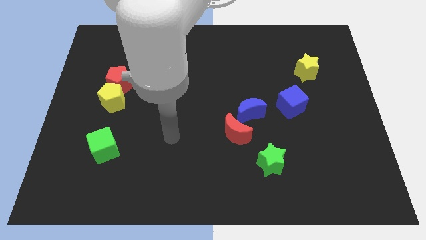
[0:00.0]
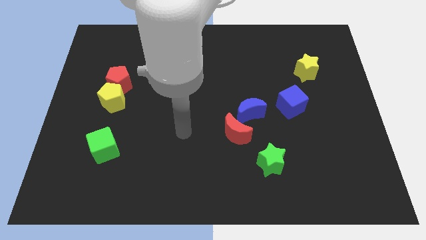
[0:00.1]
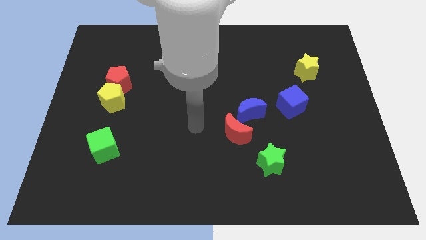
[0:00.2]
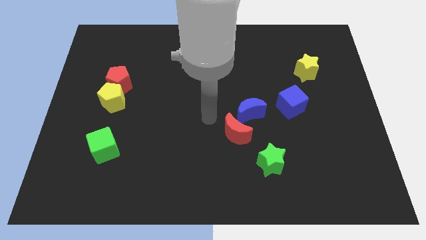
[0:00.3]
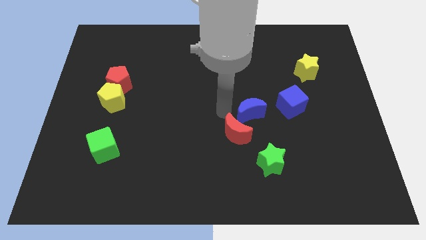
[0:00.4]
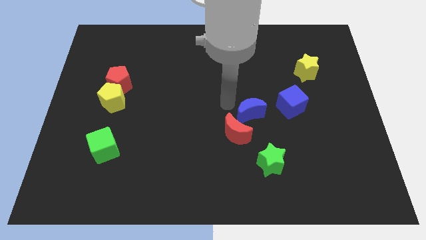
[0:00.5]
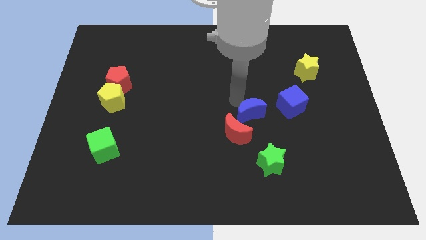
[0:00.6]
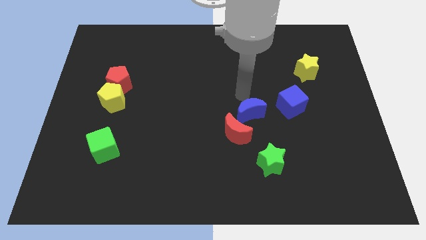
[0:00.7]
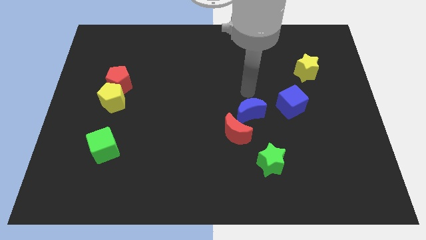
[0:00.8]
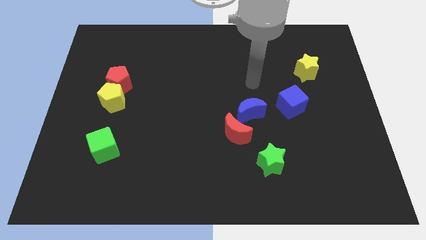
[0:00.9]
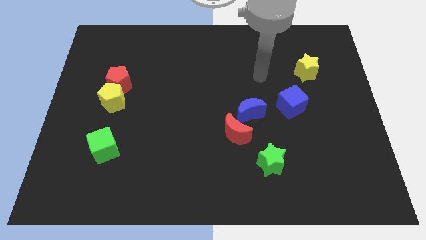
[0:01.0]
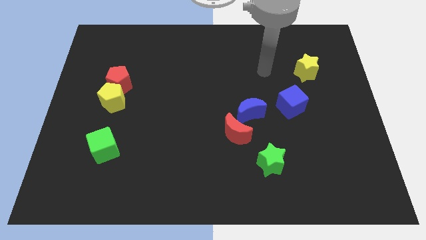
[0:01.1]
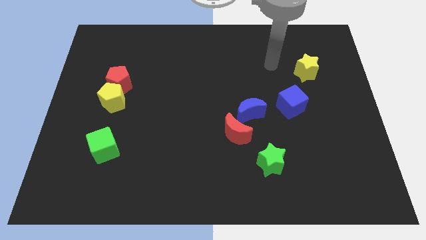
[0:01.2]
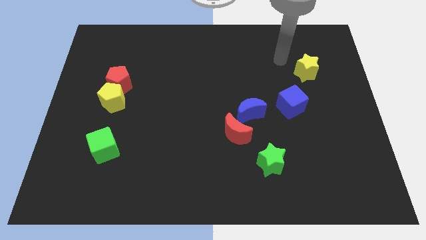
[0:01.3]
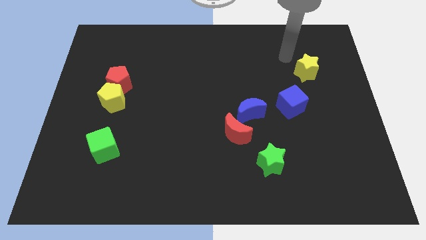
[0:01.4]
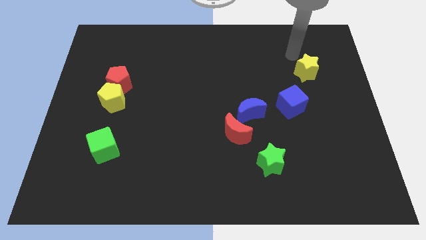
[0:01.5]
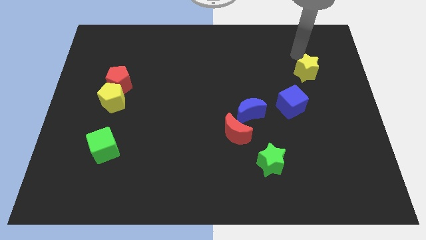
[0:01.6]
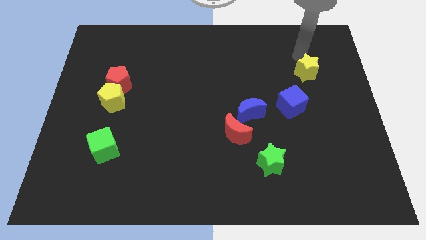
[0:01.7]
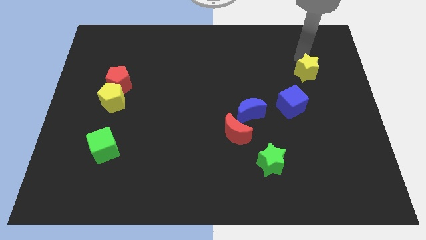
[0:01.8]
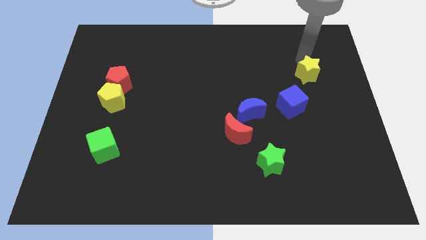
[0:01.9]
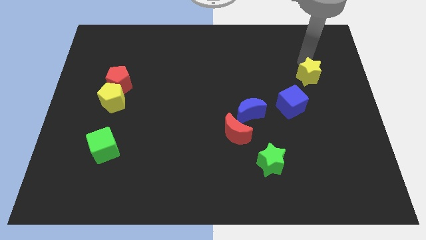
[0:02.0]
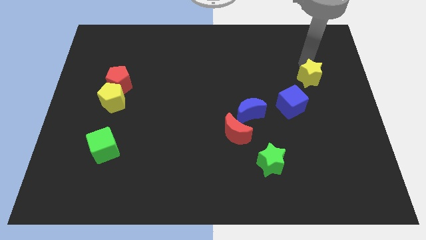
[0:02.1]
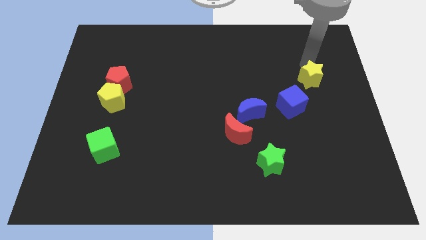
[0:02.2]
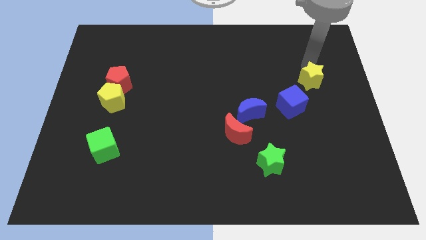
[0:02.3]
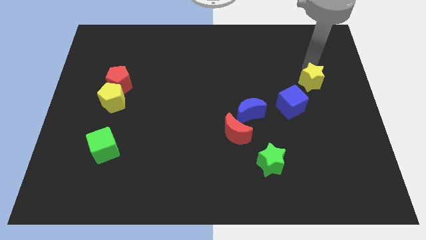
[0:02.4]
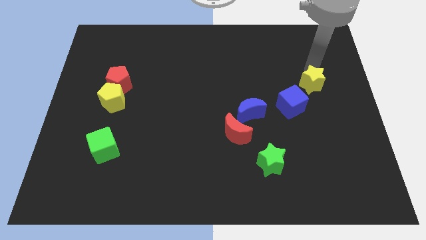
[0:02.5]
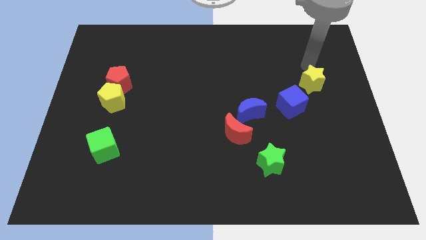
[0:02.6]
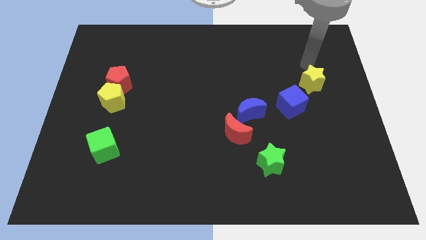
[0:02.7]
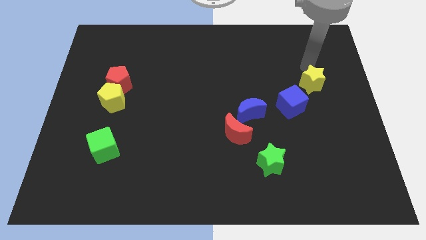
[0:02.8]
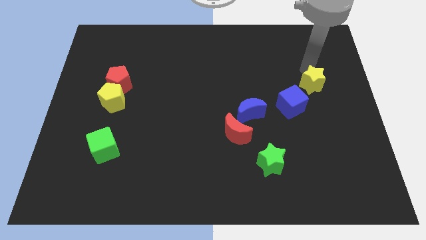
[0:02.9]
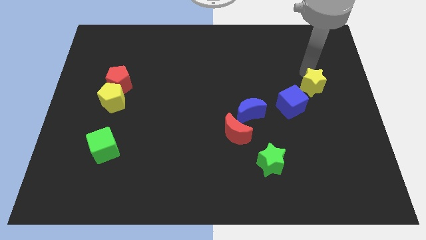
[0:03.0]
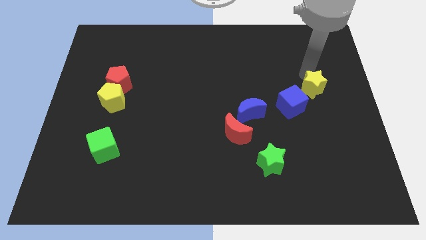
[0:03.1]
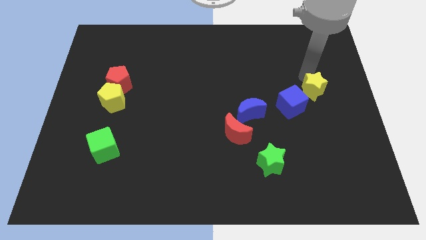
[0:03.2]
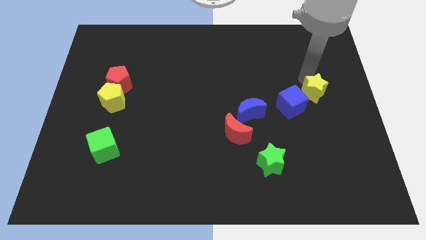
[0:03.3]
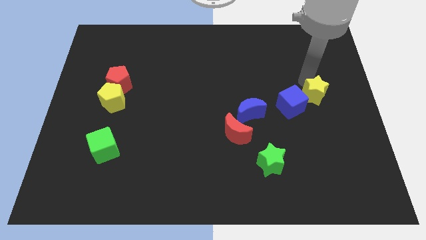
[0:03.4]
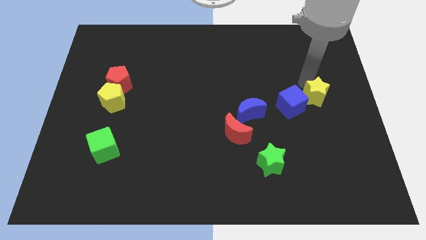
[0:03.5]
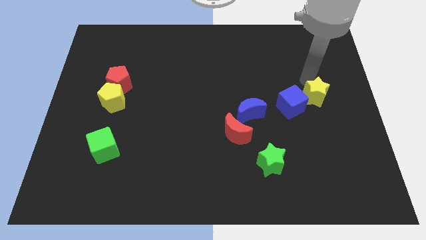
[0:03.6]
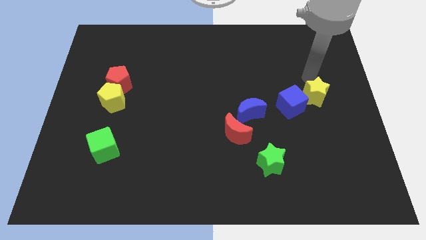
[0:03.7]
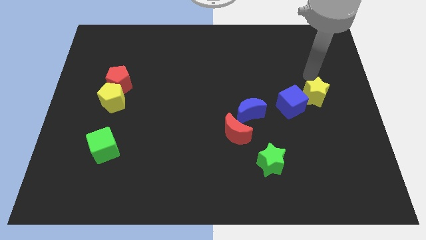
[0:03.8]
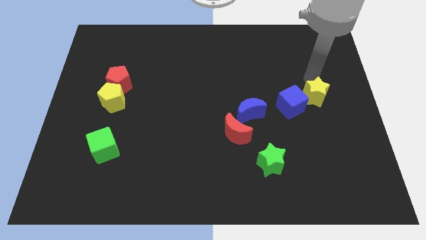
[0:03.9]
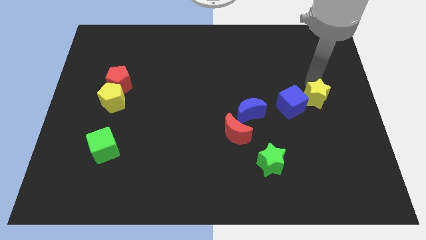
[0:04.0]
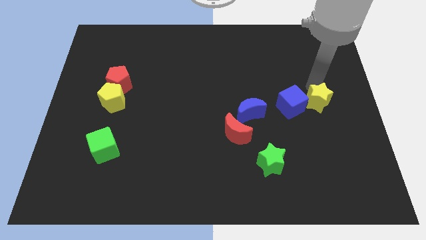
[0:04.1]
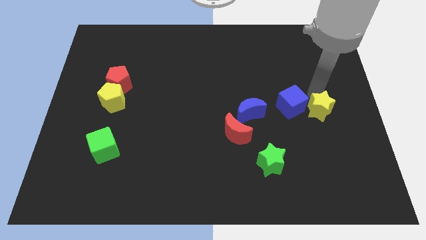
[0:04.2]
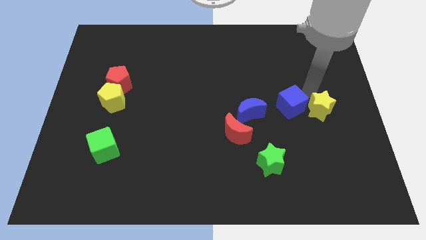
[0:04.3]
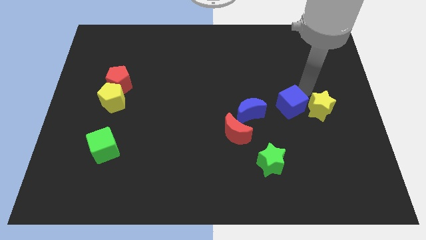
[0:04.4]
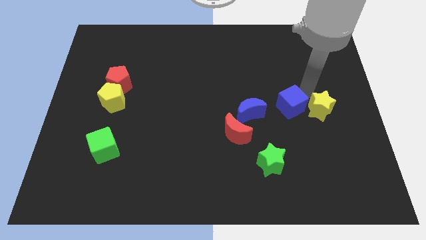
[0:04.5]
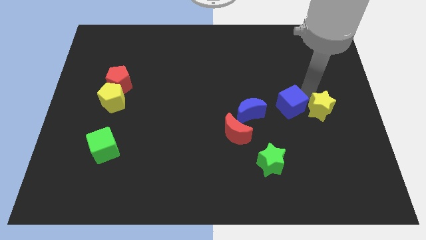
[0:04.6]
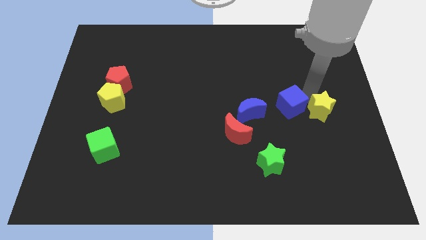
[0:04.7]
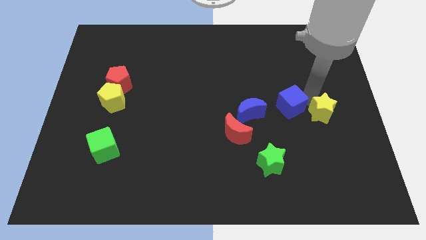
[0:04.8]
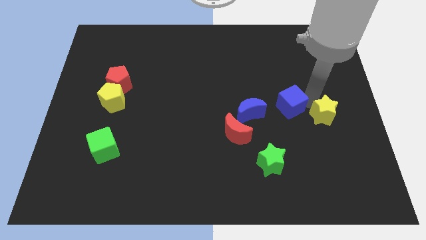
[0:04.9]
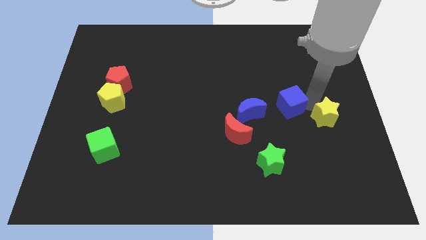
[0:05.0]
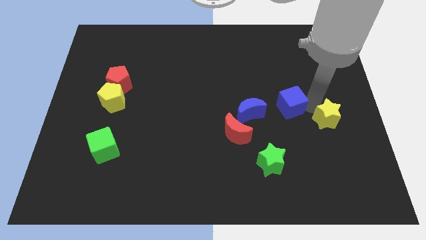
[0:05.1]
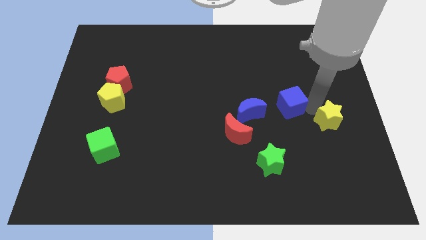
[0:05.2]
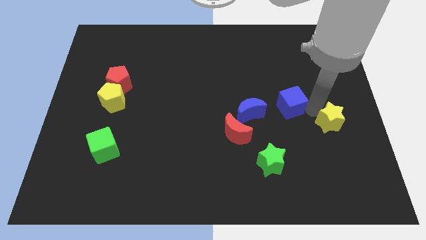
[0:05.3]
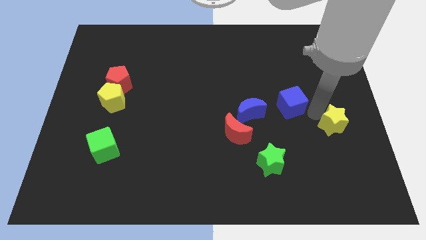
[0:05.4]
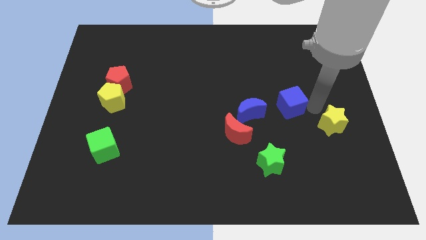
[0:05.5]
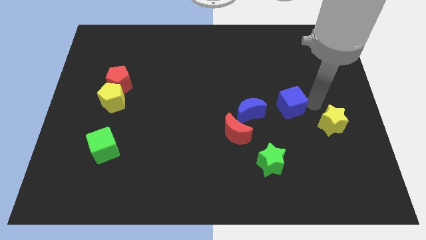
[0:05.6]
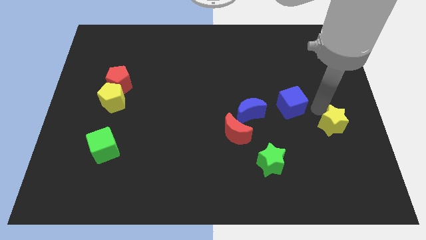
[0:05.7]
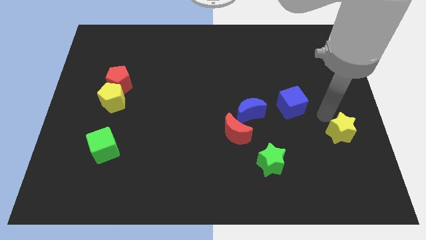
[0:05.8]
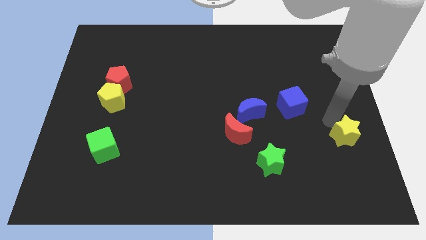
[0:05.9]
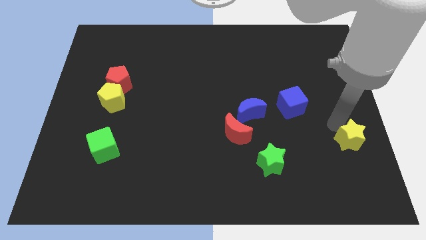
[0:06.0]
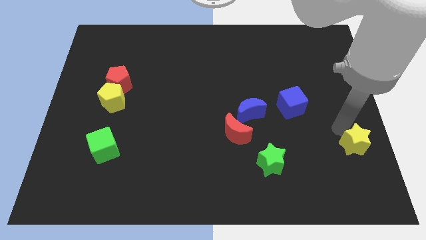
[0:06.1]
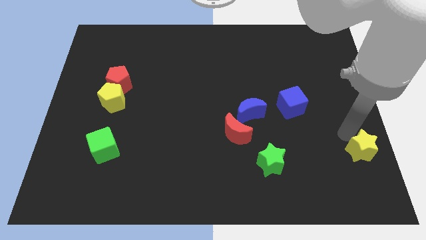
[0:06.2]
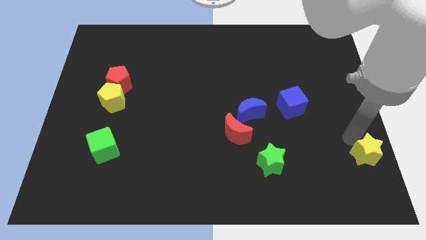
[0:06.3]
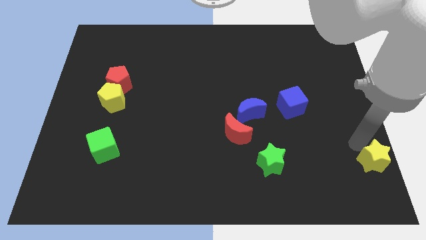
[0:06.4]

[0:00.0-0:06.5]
put the yellow star to the lower right corner

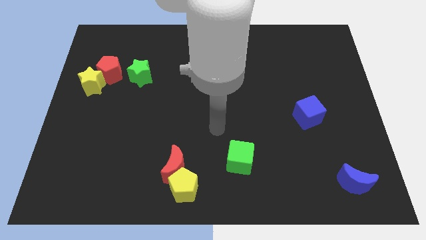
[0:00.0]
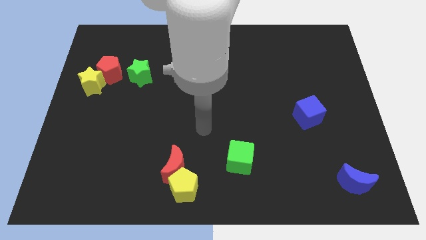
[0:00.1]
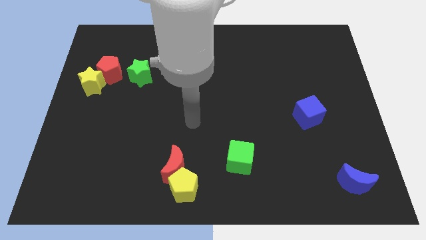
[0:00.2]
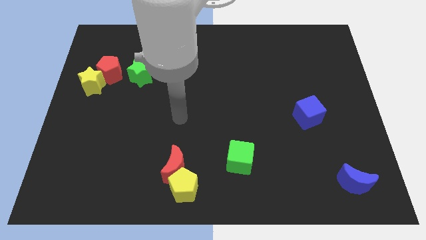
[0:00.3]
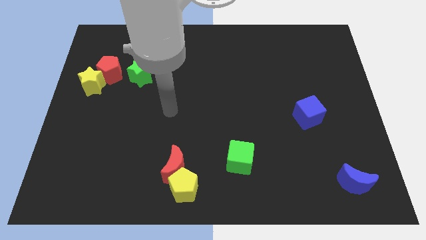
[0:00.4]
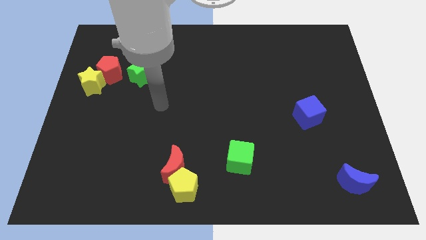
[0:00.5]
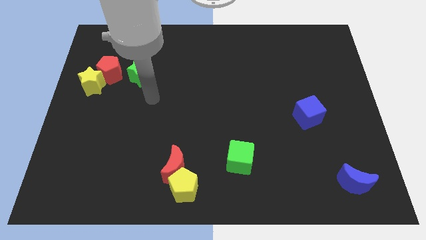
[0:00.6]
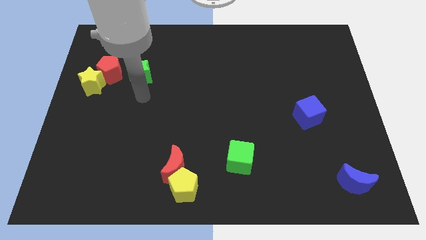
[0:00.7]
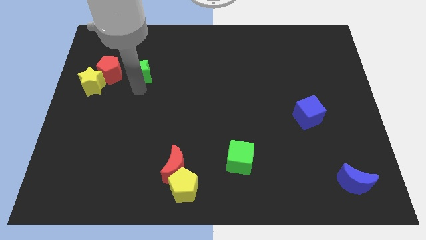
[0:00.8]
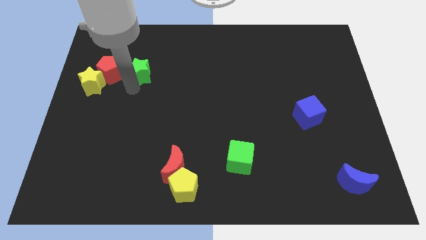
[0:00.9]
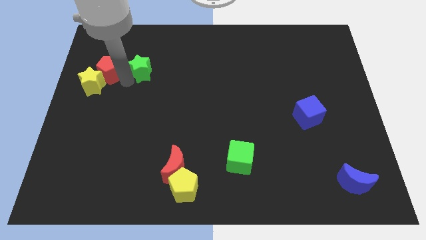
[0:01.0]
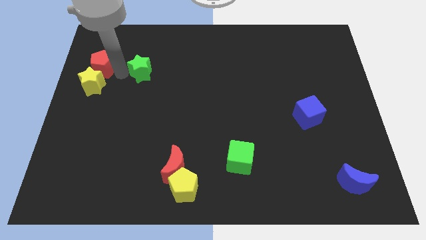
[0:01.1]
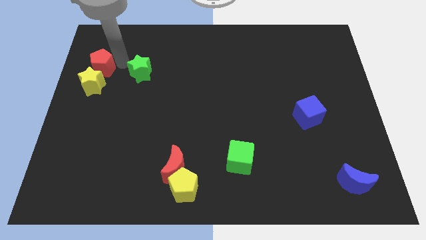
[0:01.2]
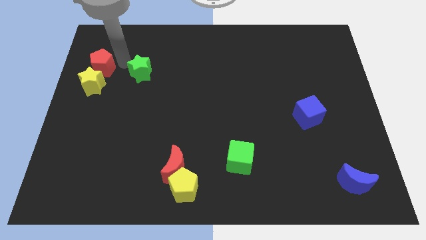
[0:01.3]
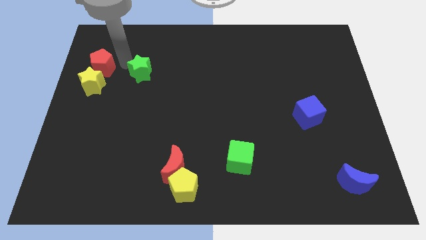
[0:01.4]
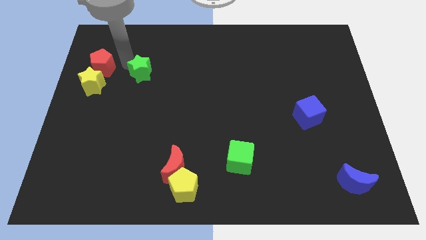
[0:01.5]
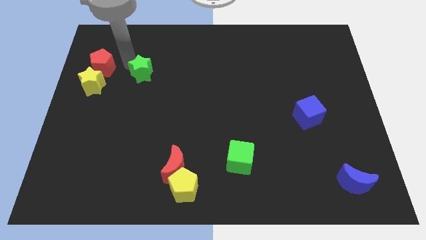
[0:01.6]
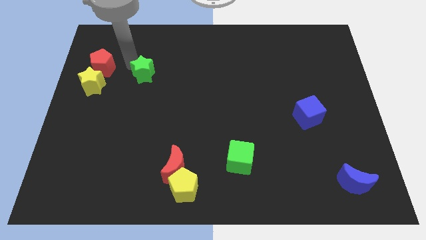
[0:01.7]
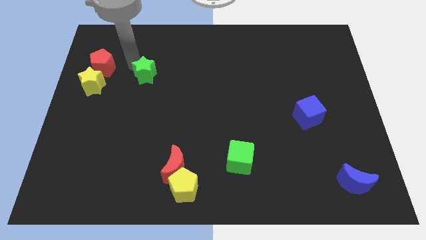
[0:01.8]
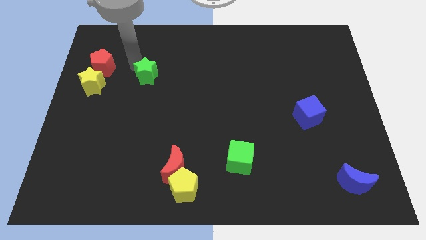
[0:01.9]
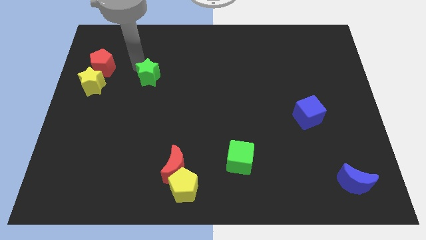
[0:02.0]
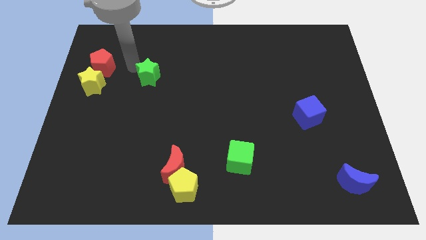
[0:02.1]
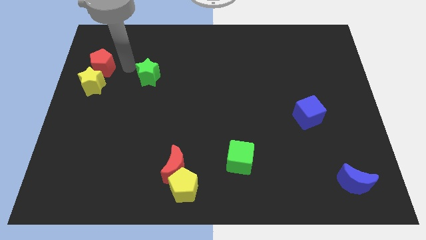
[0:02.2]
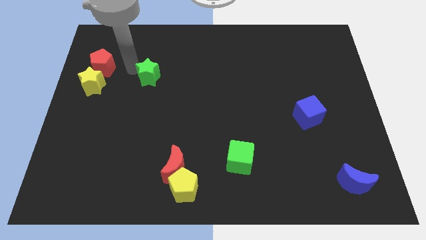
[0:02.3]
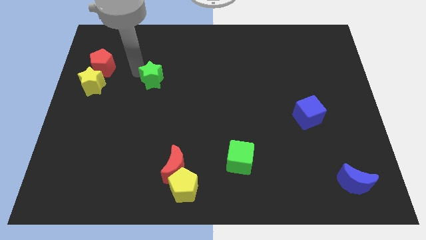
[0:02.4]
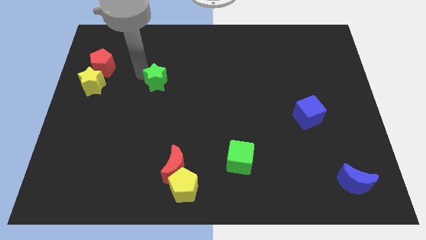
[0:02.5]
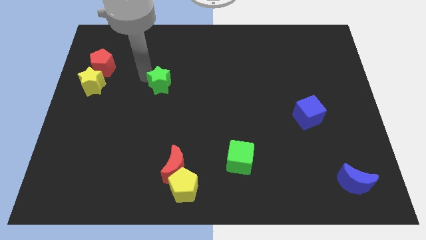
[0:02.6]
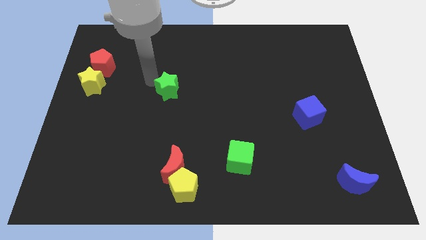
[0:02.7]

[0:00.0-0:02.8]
slide the green star to the middle
